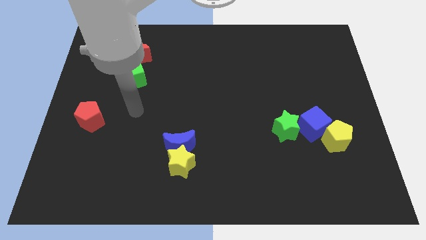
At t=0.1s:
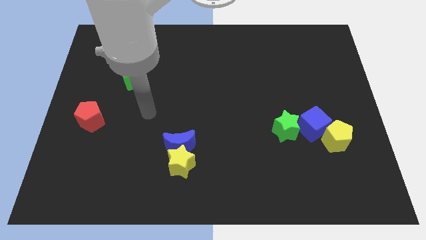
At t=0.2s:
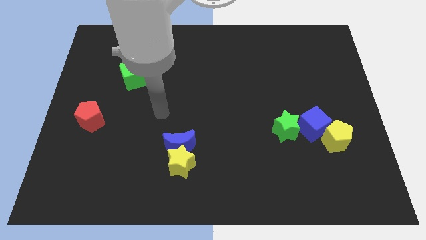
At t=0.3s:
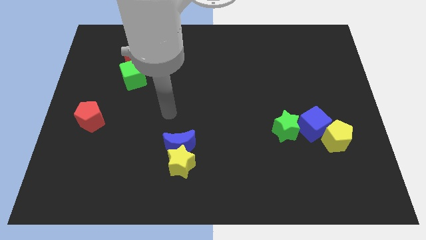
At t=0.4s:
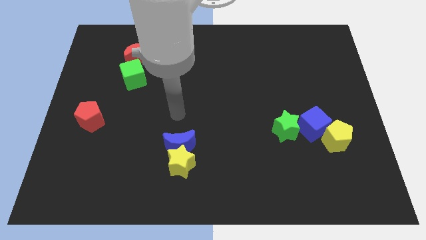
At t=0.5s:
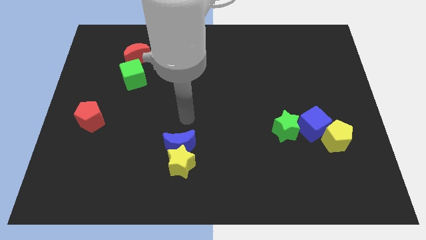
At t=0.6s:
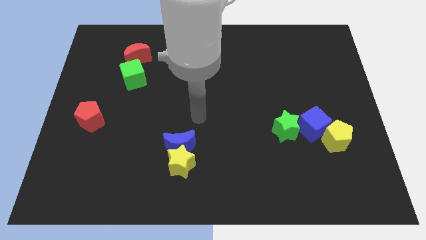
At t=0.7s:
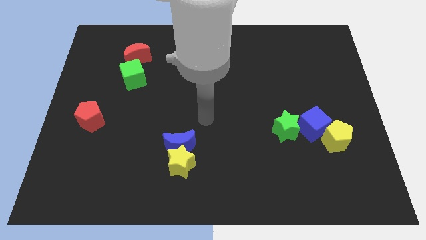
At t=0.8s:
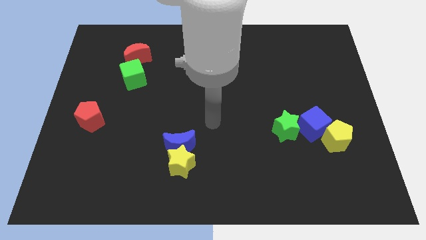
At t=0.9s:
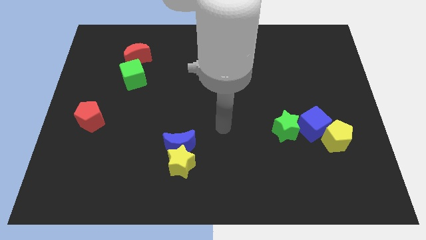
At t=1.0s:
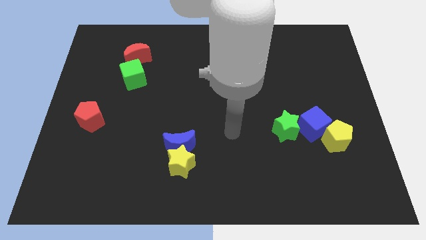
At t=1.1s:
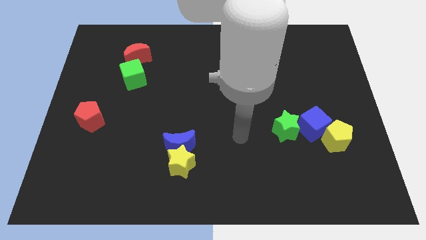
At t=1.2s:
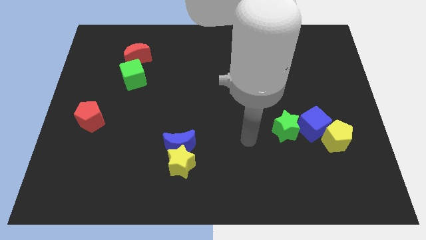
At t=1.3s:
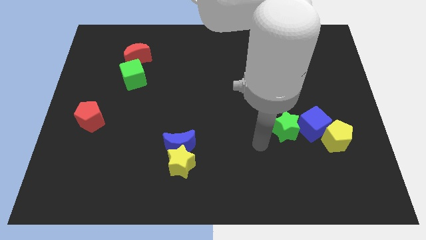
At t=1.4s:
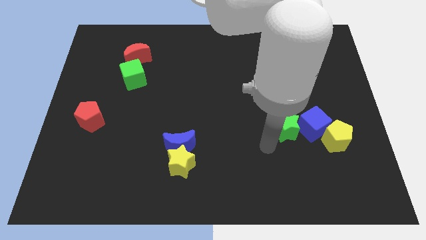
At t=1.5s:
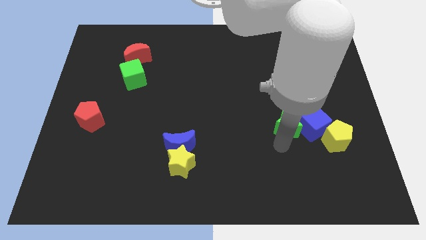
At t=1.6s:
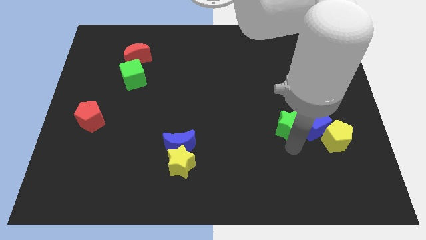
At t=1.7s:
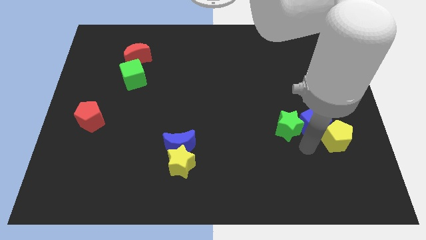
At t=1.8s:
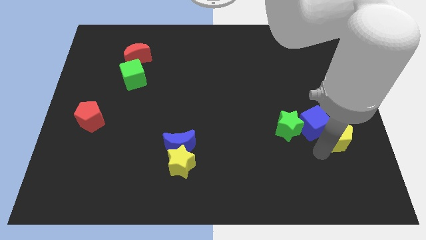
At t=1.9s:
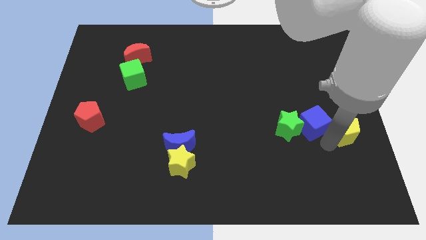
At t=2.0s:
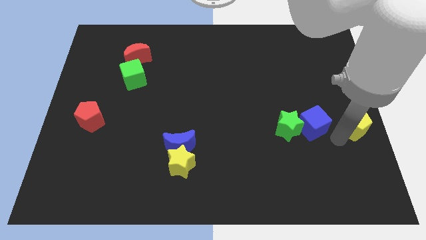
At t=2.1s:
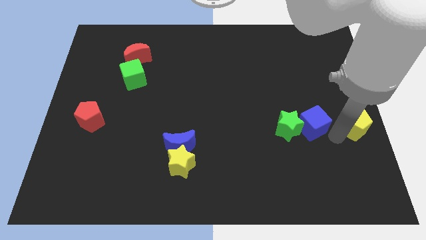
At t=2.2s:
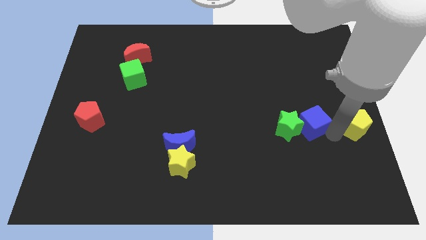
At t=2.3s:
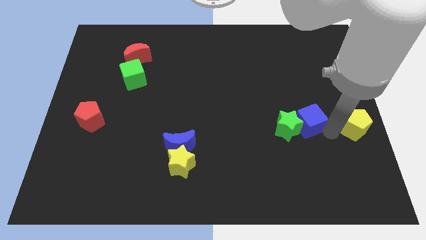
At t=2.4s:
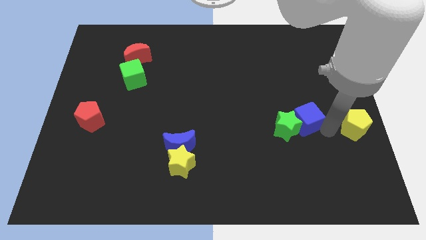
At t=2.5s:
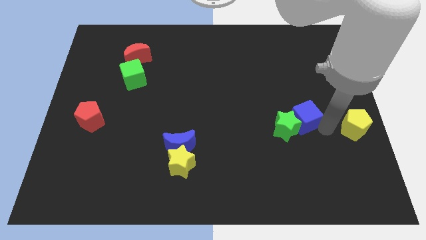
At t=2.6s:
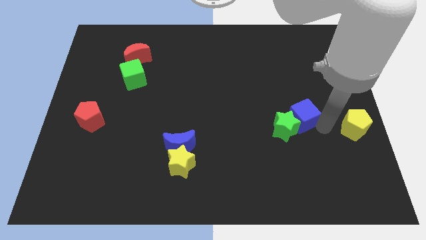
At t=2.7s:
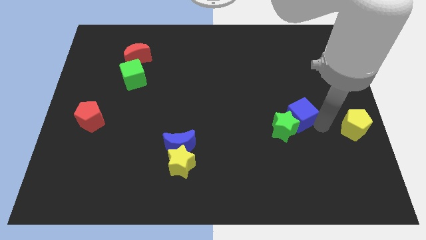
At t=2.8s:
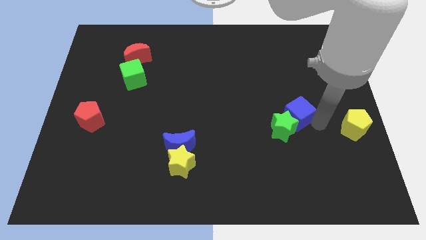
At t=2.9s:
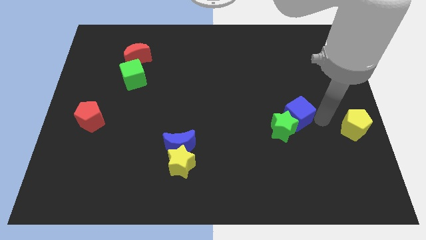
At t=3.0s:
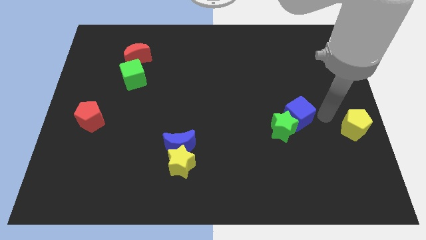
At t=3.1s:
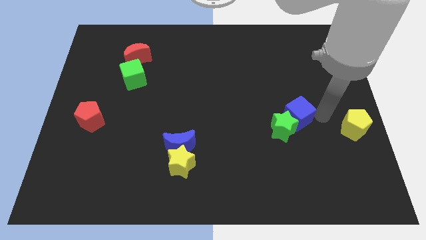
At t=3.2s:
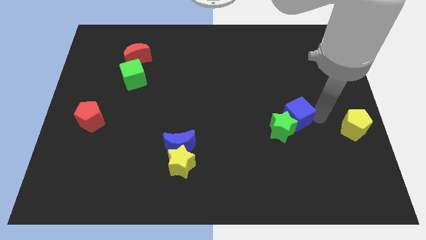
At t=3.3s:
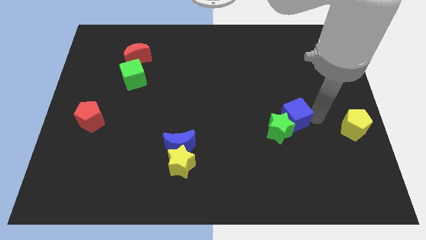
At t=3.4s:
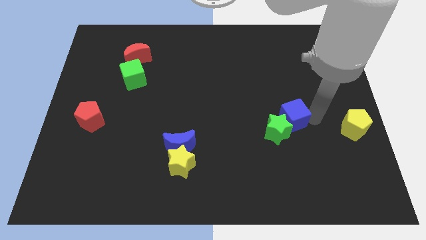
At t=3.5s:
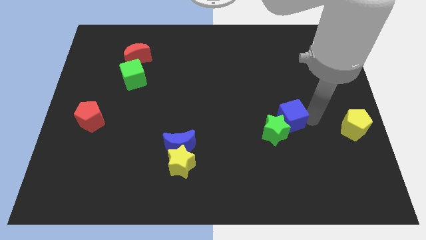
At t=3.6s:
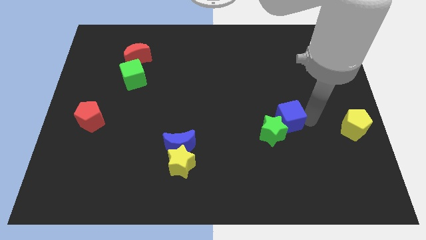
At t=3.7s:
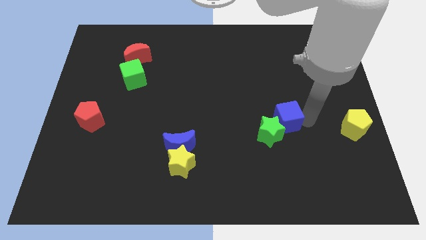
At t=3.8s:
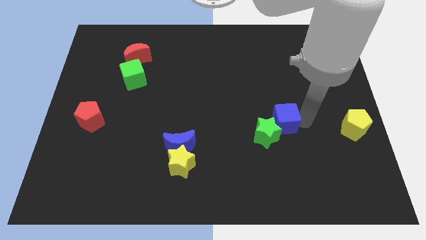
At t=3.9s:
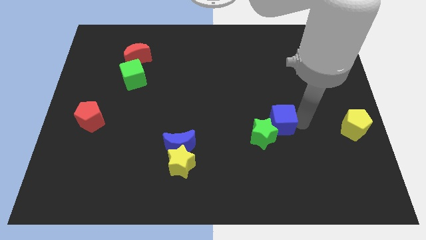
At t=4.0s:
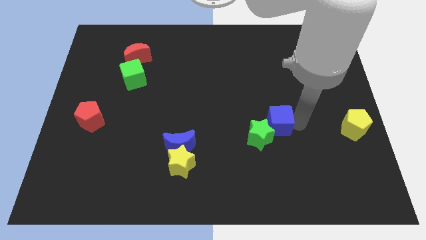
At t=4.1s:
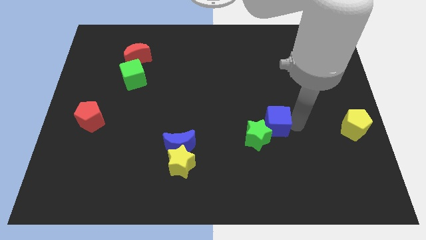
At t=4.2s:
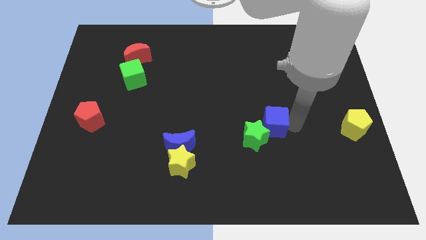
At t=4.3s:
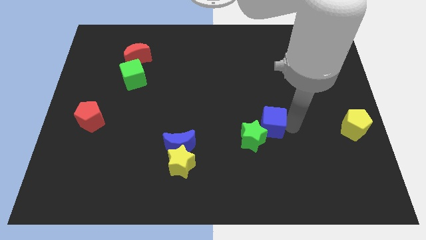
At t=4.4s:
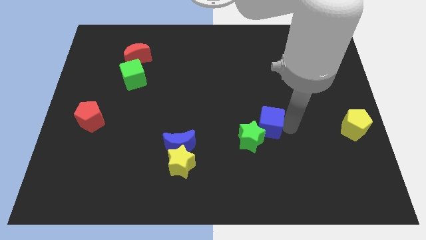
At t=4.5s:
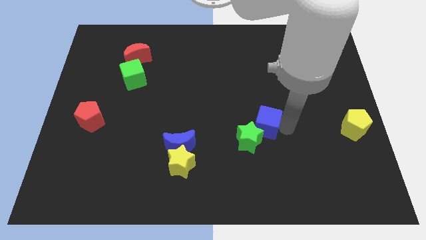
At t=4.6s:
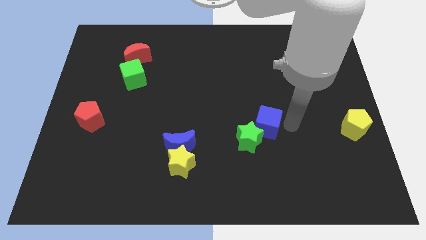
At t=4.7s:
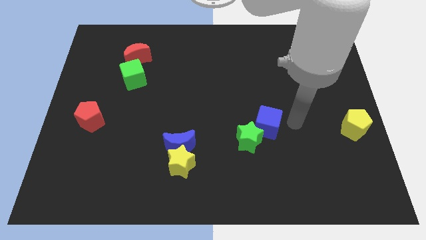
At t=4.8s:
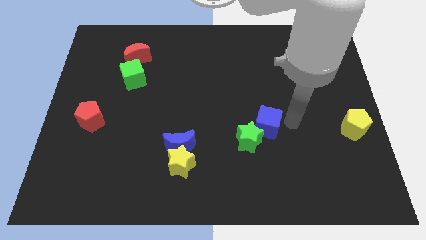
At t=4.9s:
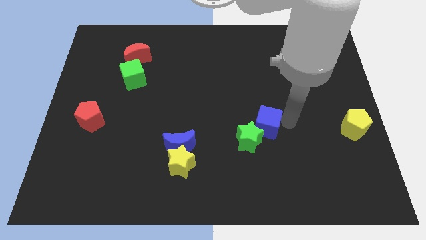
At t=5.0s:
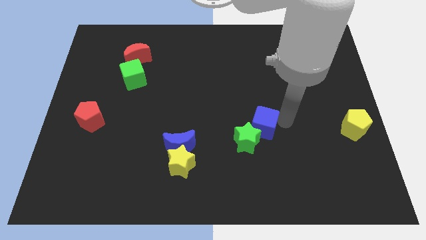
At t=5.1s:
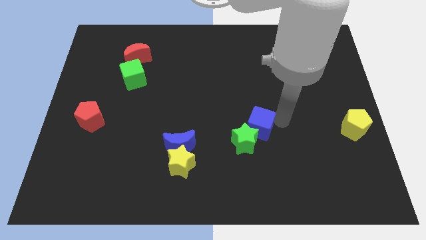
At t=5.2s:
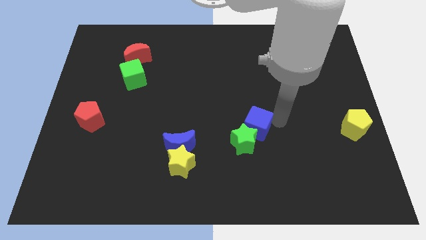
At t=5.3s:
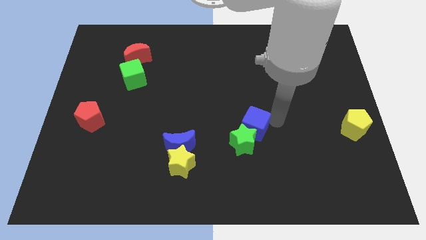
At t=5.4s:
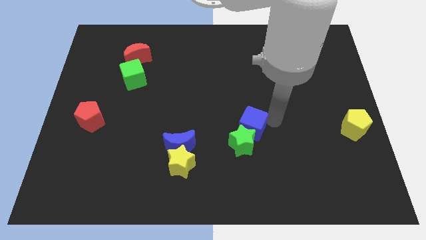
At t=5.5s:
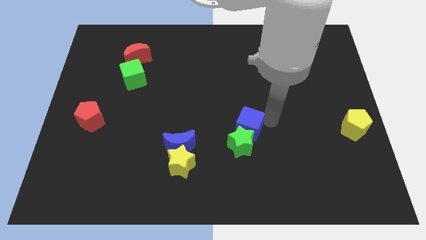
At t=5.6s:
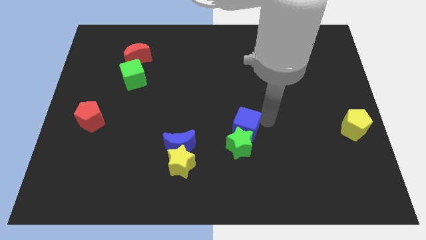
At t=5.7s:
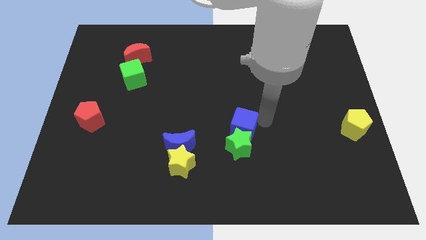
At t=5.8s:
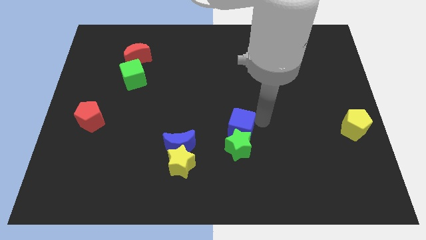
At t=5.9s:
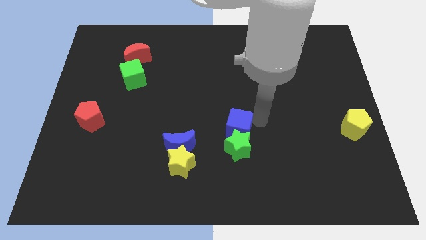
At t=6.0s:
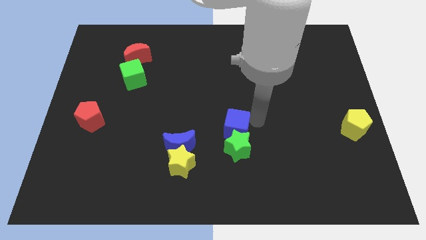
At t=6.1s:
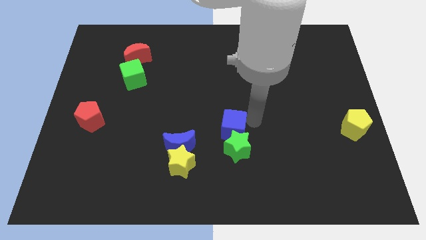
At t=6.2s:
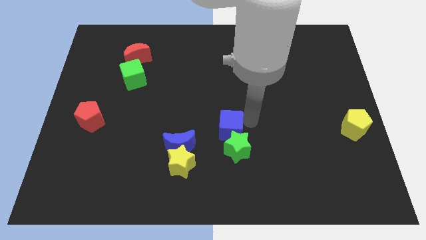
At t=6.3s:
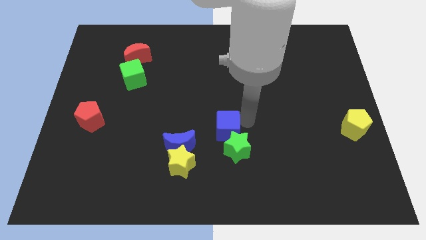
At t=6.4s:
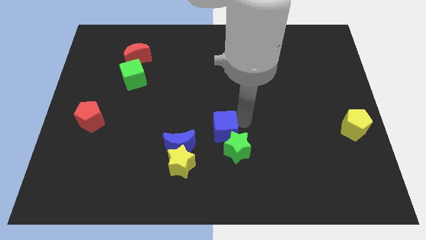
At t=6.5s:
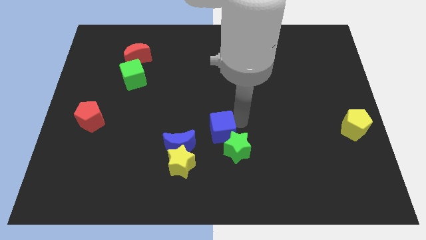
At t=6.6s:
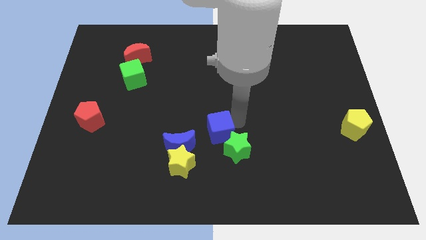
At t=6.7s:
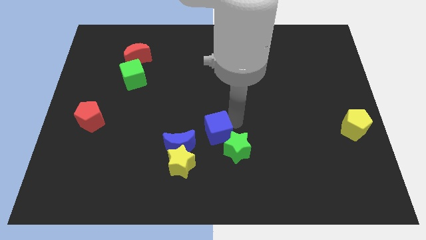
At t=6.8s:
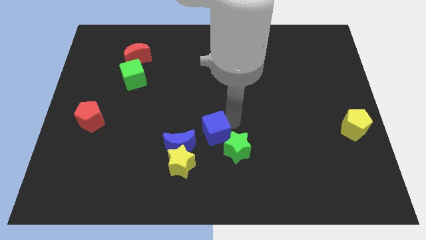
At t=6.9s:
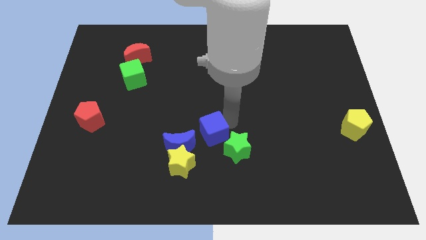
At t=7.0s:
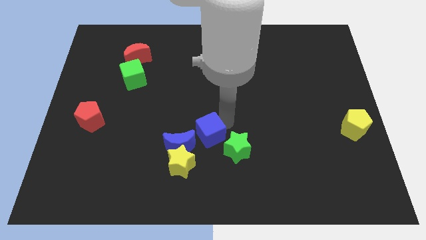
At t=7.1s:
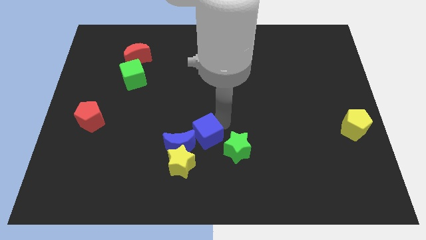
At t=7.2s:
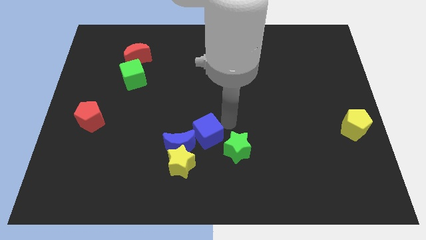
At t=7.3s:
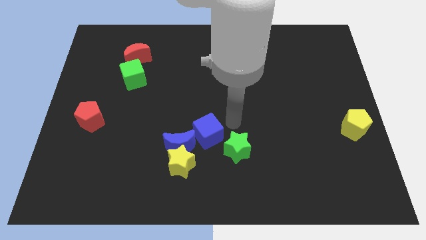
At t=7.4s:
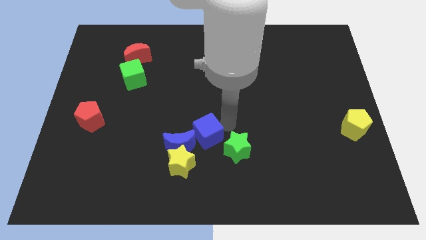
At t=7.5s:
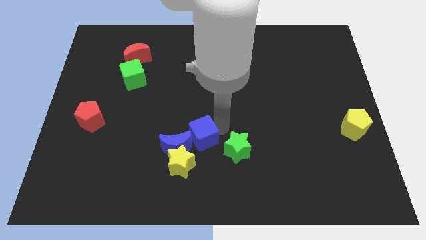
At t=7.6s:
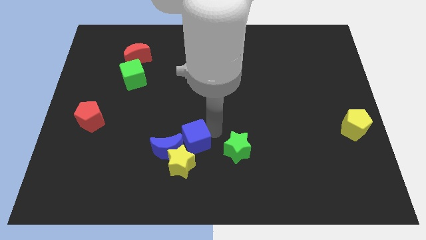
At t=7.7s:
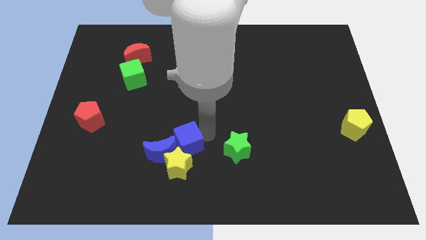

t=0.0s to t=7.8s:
push the blue cube to the blue moon

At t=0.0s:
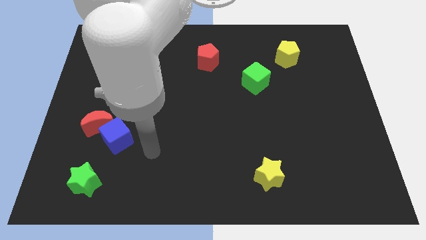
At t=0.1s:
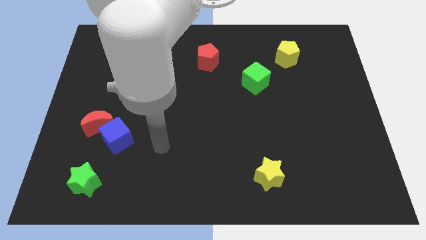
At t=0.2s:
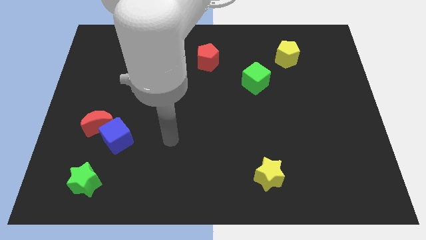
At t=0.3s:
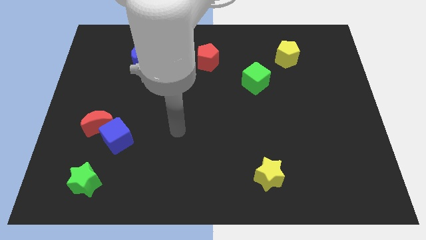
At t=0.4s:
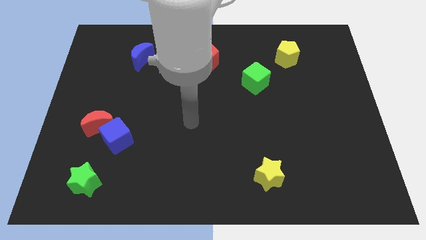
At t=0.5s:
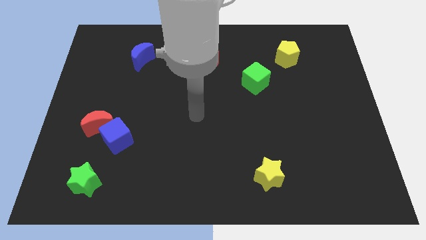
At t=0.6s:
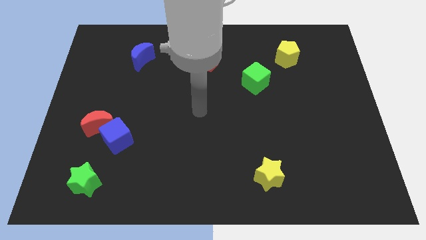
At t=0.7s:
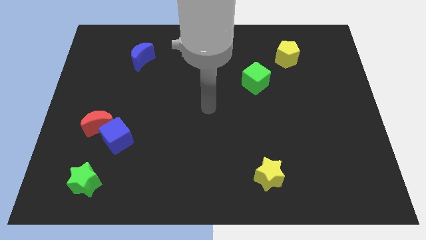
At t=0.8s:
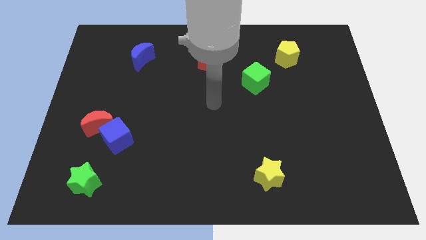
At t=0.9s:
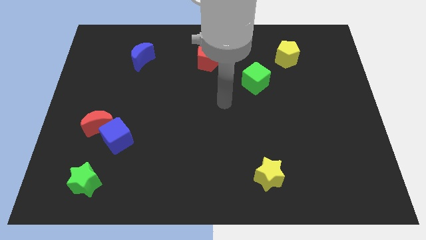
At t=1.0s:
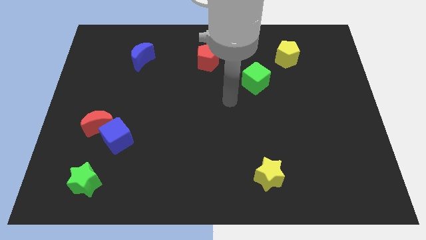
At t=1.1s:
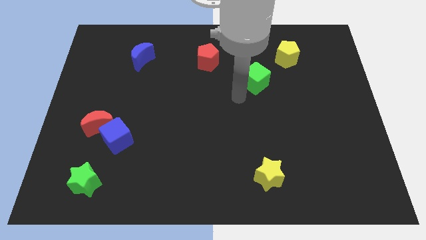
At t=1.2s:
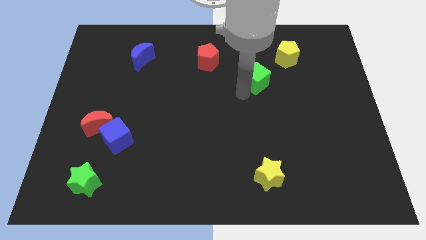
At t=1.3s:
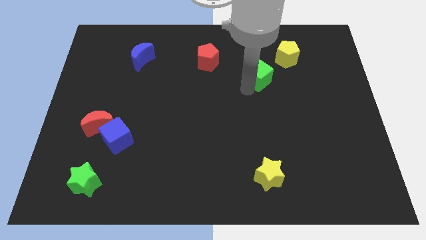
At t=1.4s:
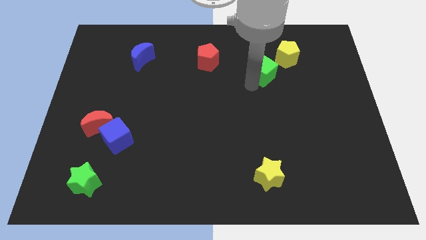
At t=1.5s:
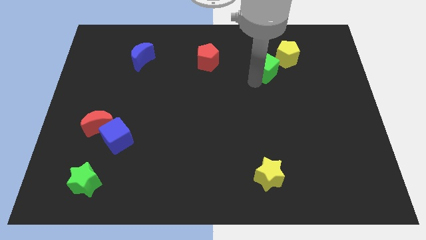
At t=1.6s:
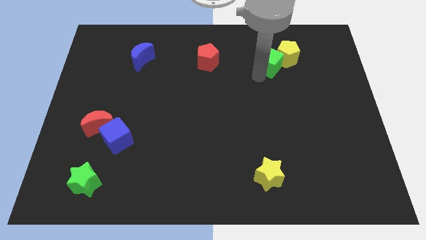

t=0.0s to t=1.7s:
slide the green cube close to the yellow pentagon
